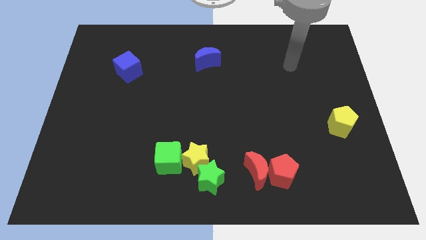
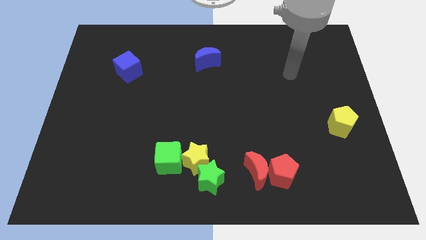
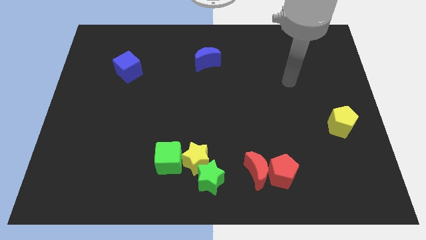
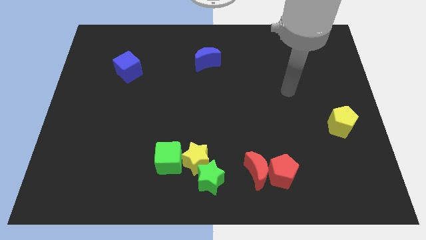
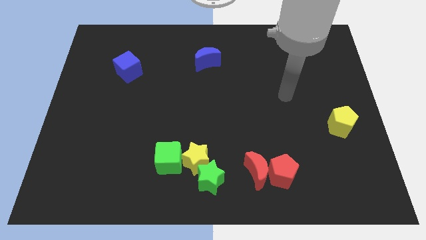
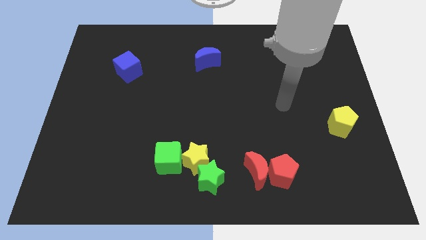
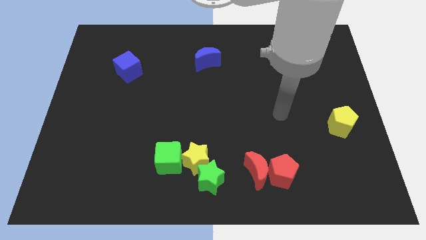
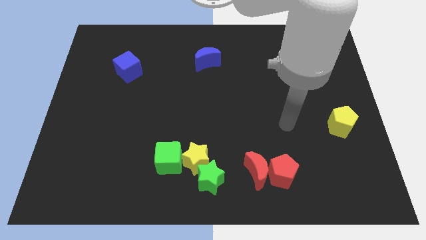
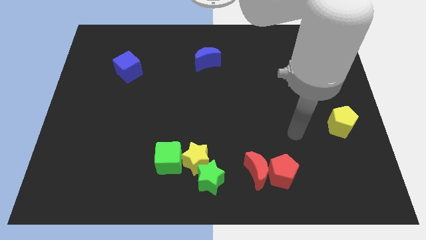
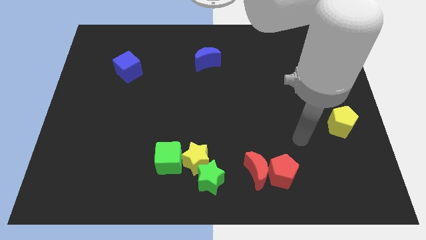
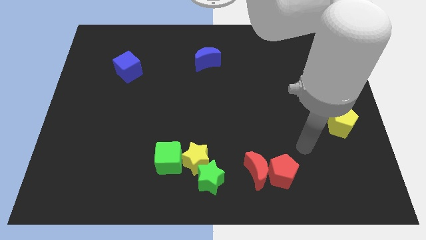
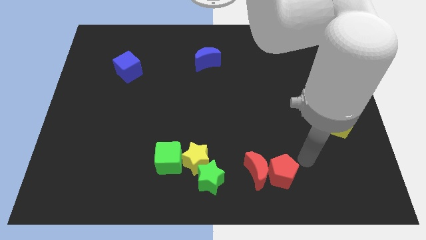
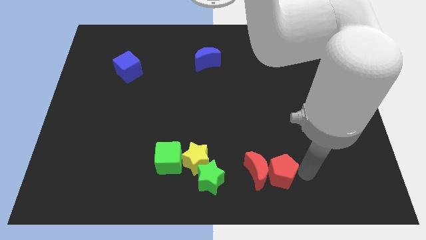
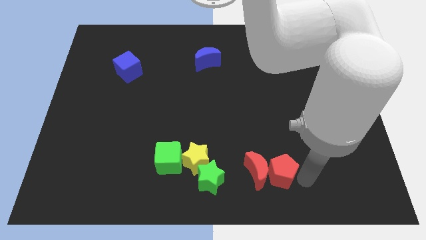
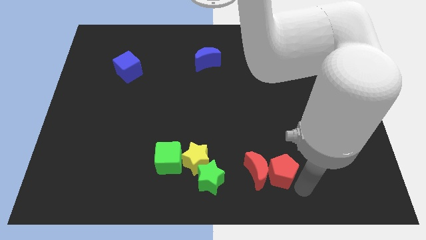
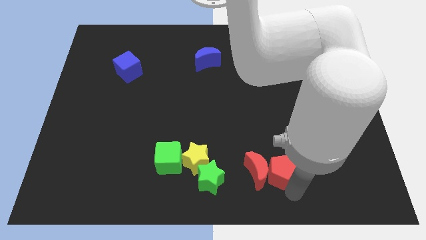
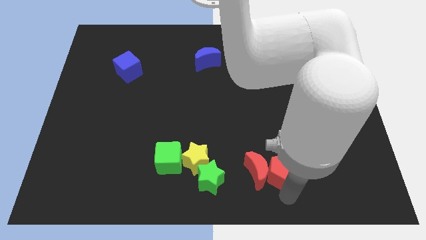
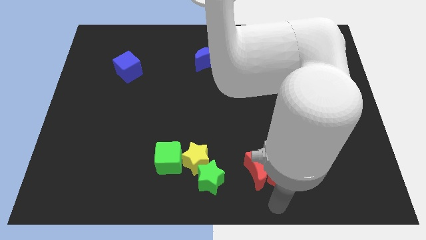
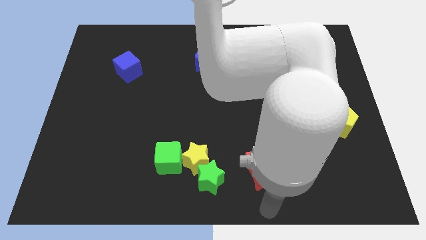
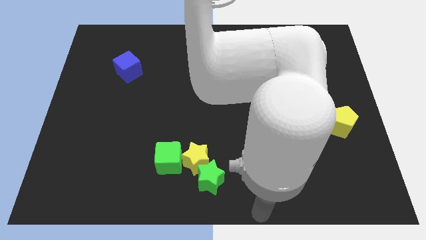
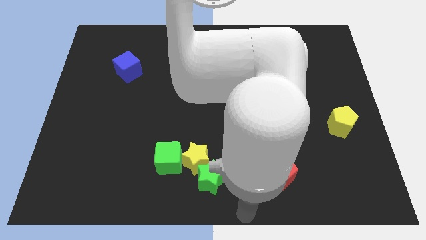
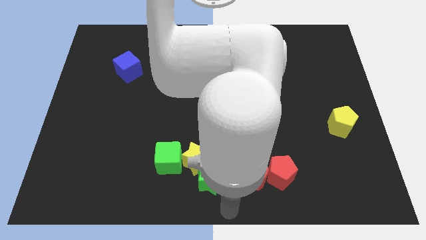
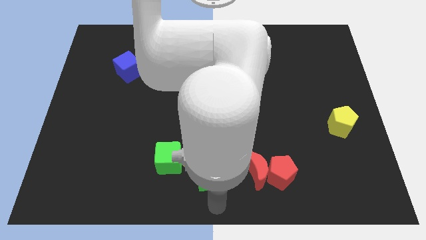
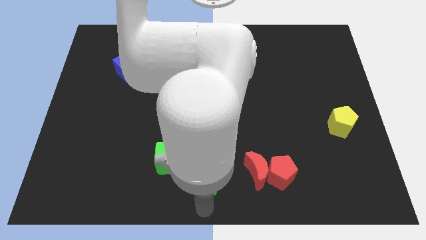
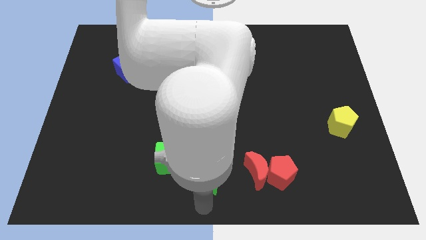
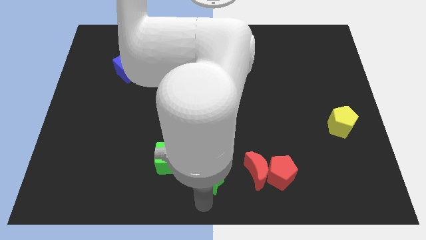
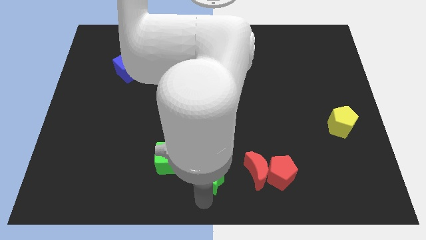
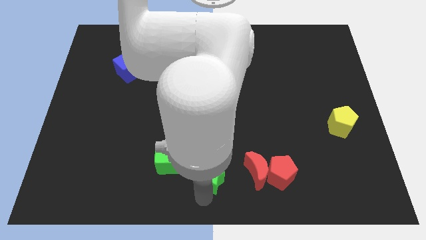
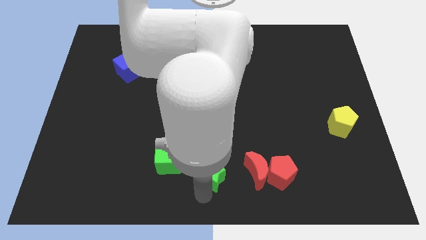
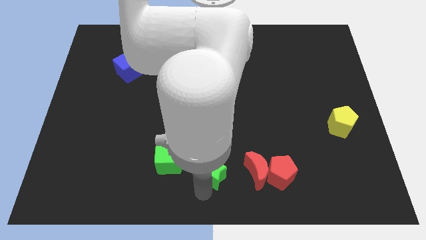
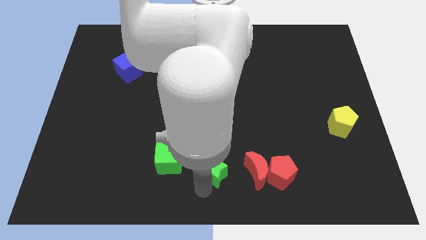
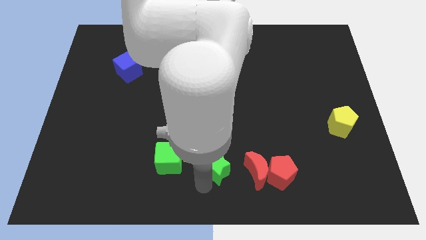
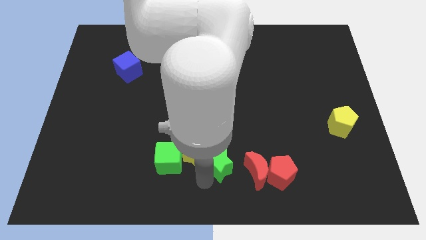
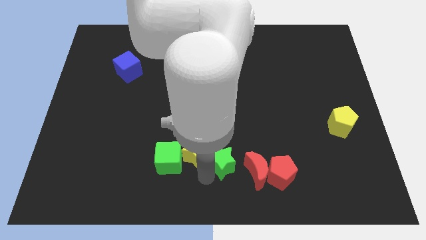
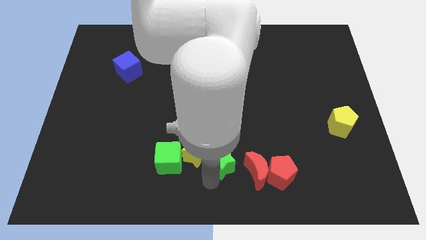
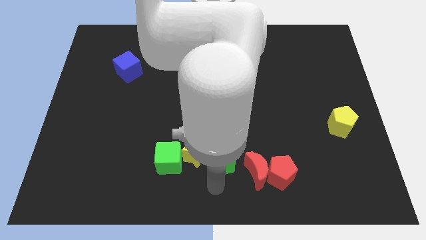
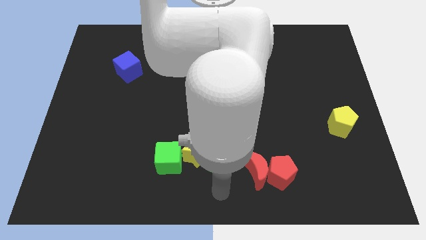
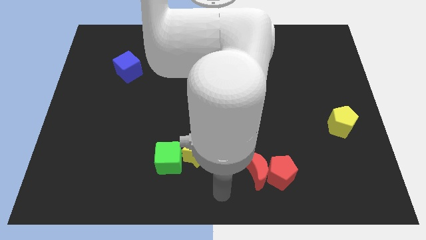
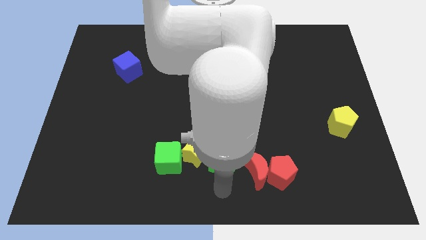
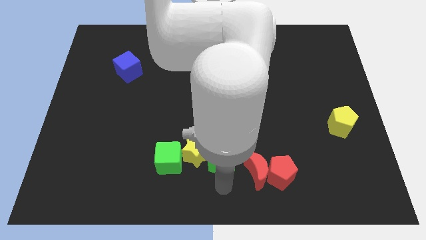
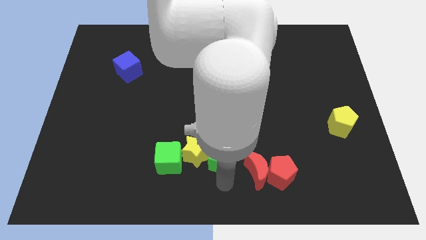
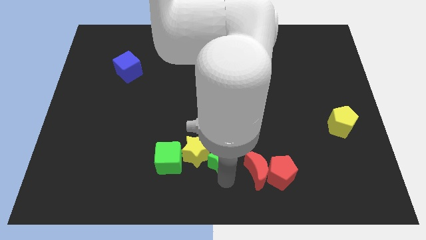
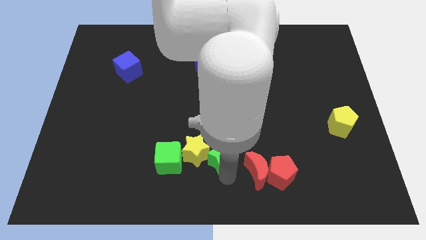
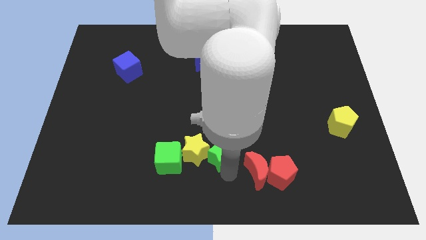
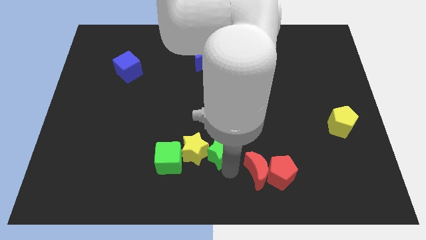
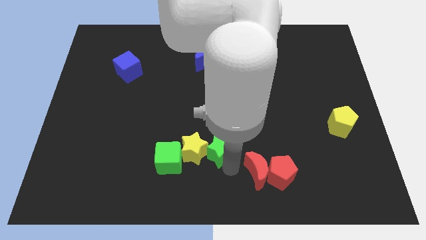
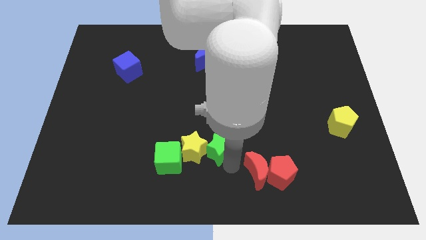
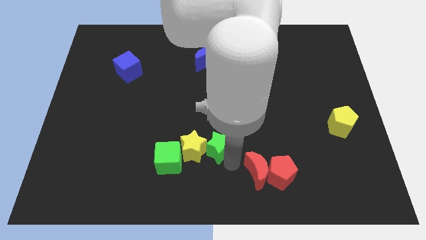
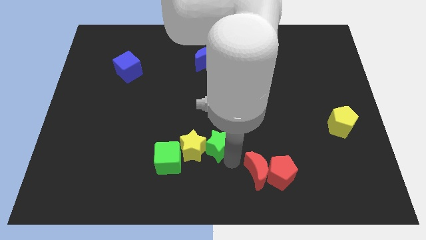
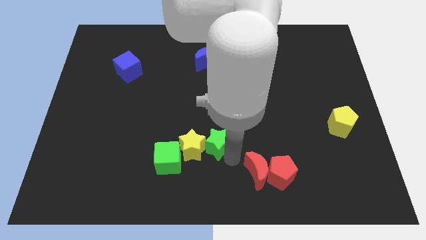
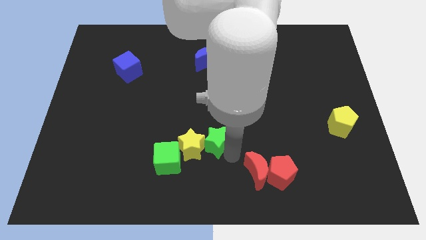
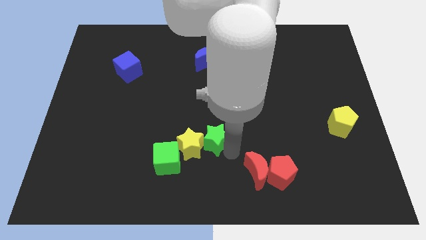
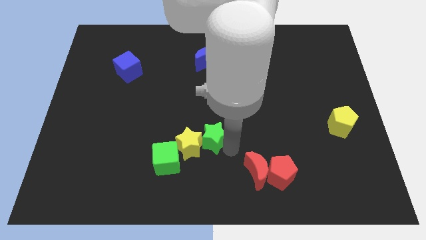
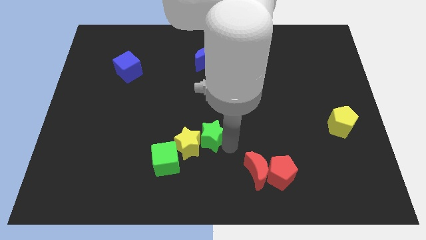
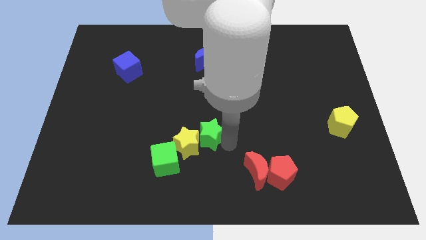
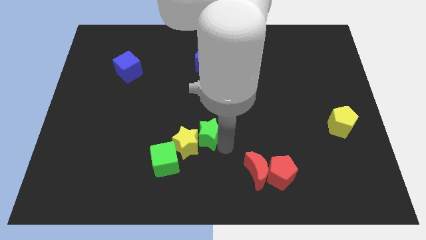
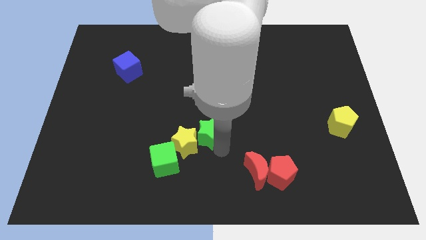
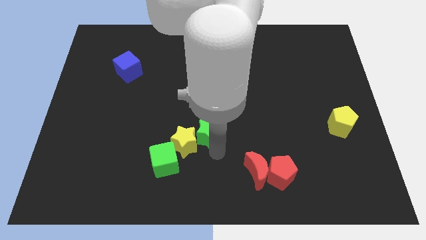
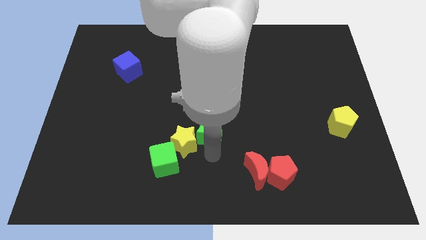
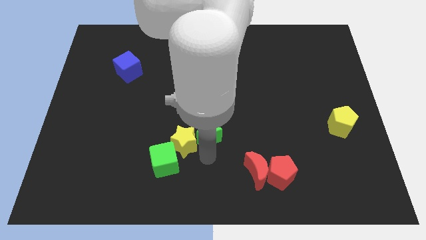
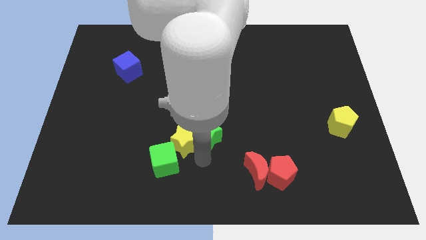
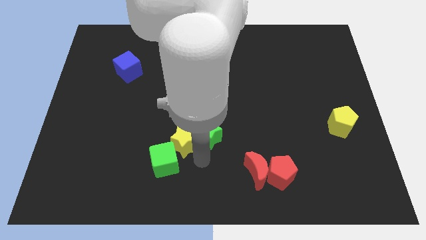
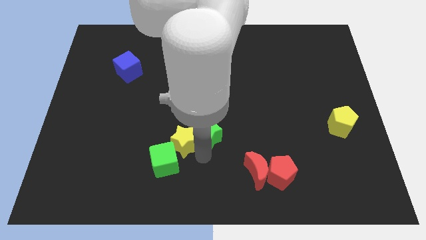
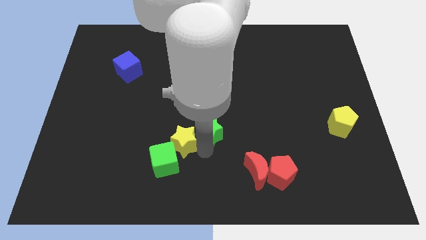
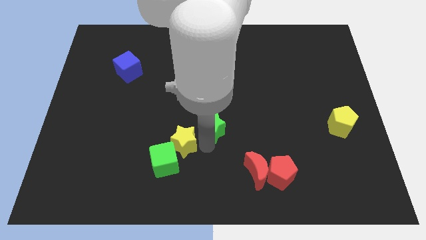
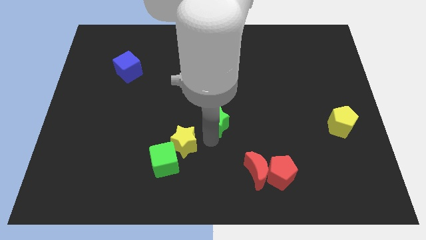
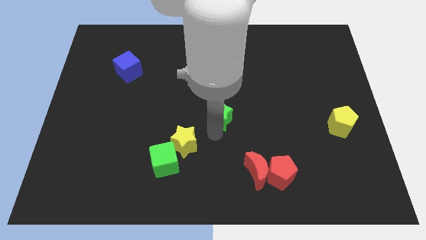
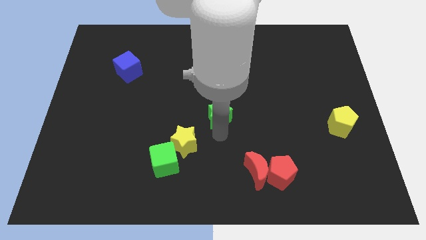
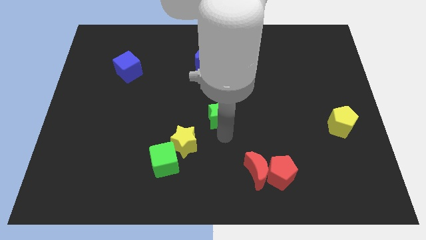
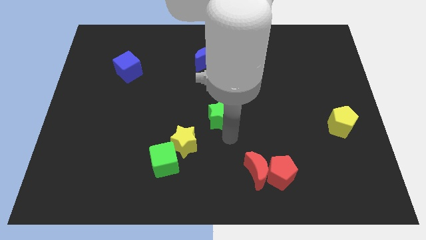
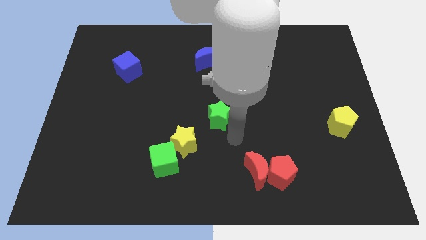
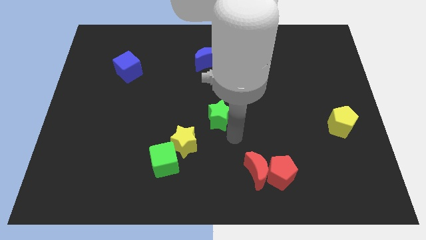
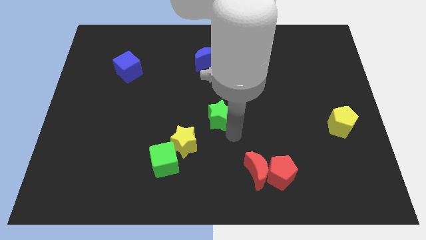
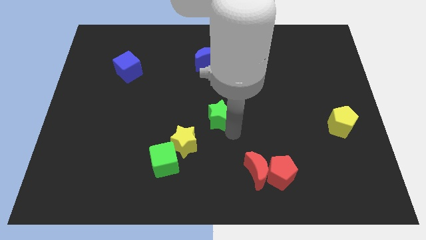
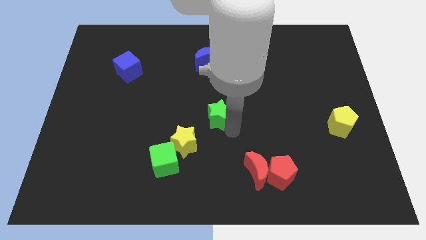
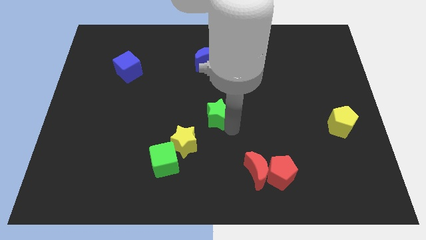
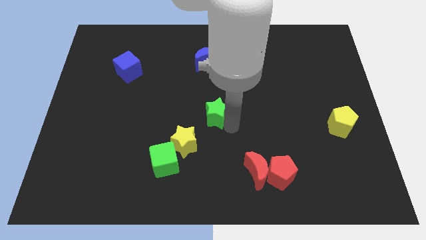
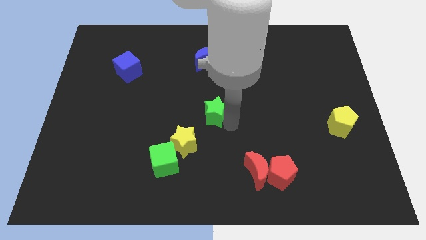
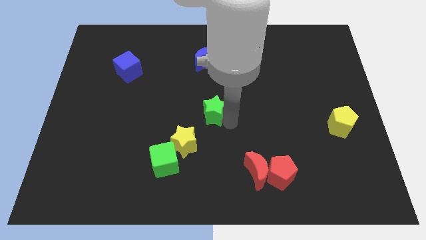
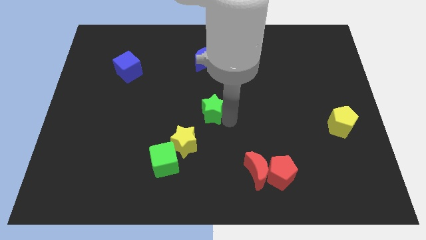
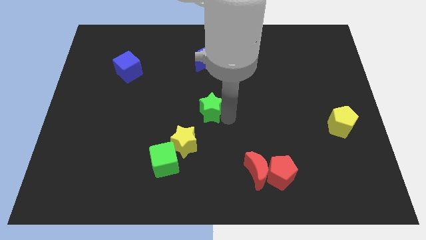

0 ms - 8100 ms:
slide the green star to the bottom side of the blue moon

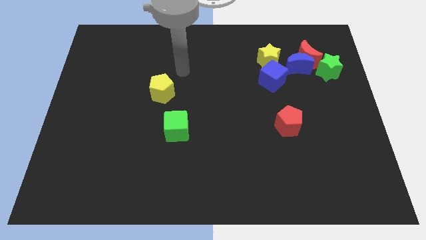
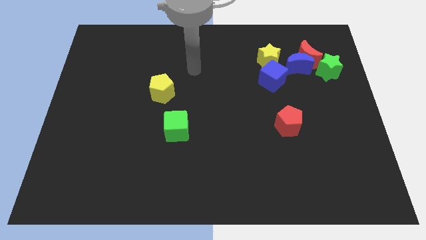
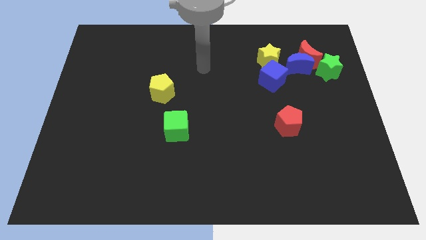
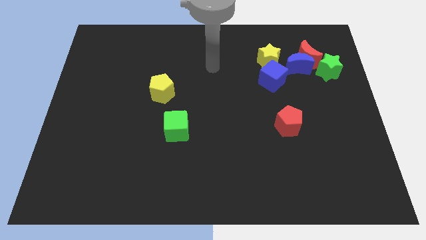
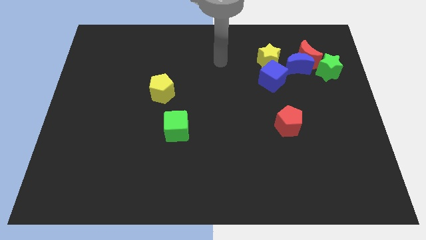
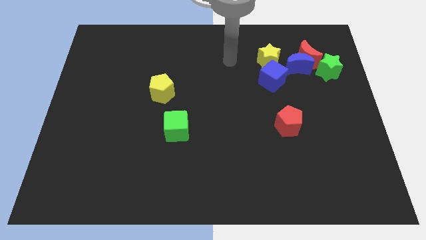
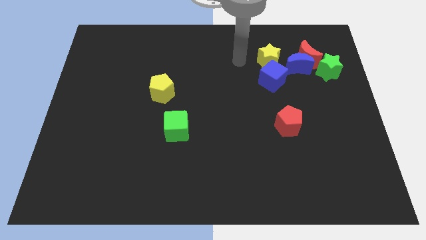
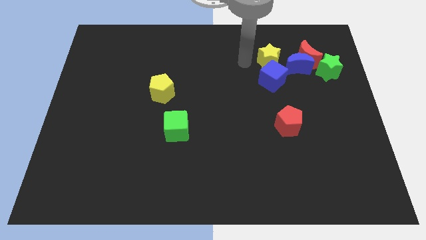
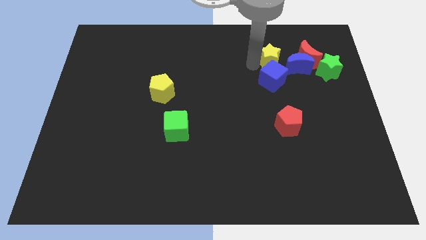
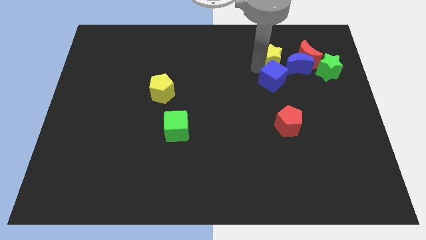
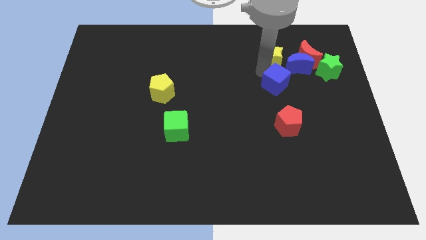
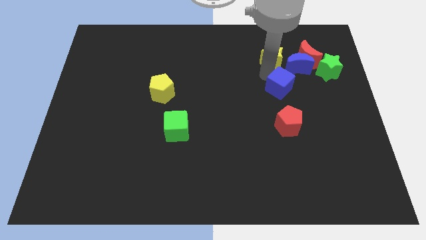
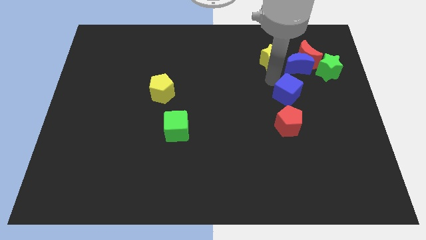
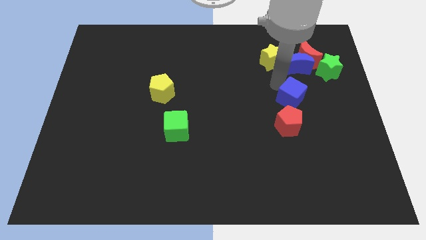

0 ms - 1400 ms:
move the blue cube to the top right side of the red pentagon
